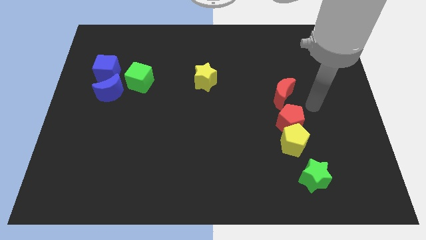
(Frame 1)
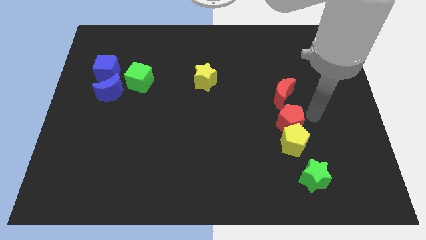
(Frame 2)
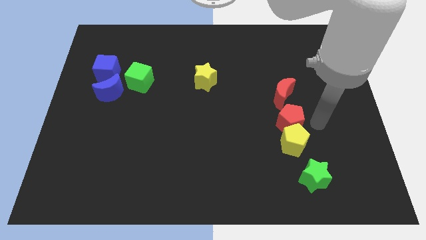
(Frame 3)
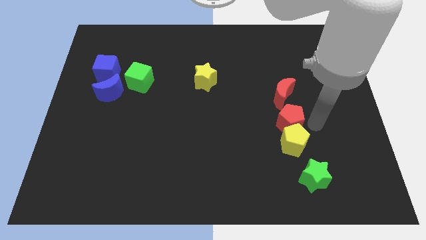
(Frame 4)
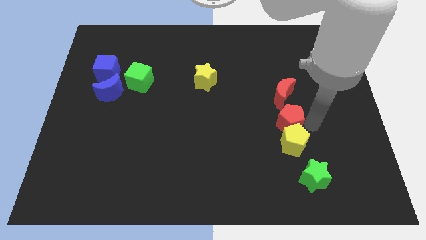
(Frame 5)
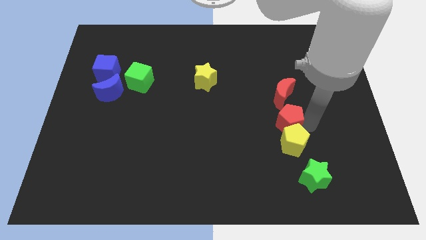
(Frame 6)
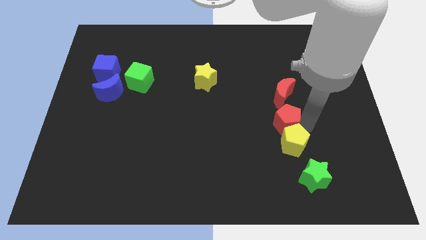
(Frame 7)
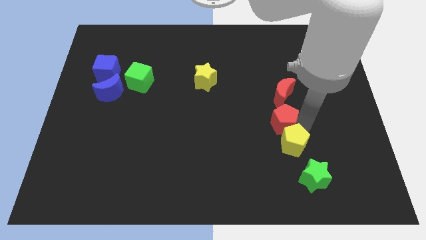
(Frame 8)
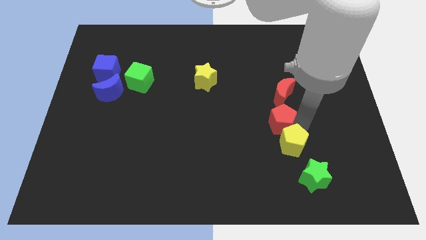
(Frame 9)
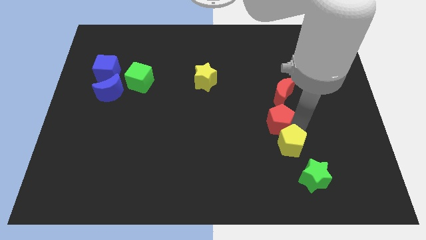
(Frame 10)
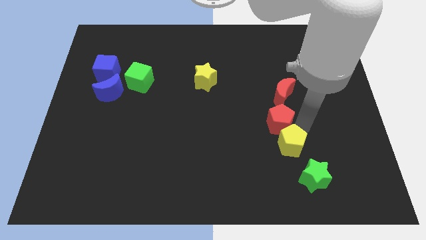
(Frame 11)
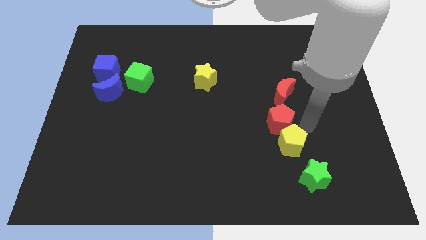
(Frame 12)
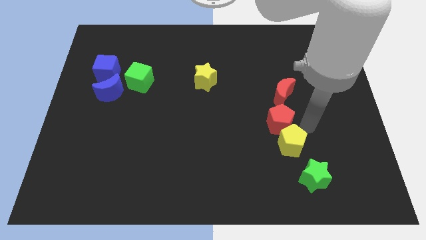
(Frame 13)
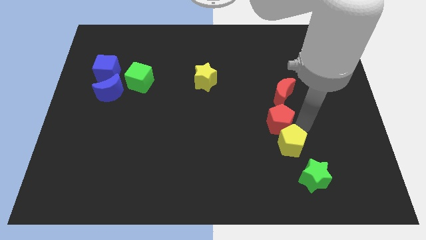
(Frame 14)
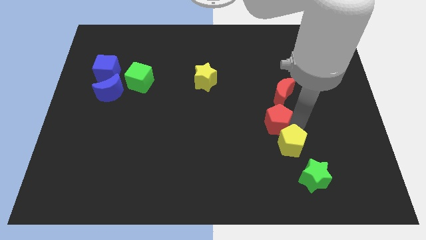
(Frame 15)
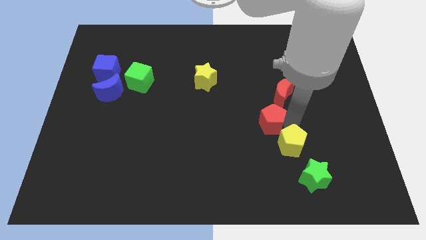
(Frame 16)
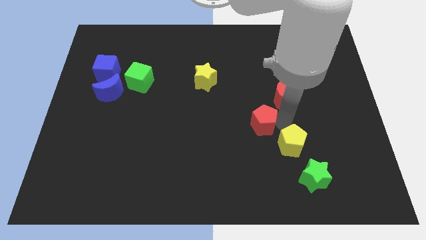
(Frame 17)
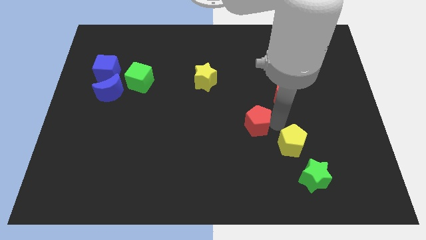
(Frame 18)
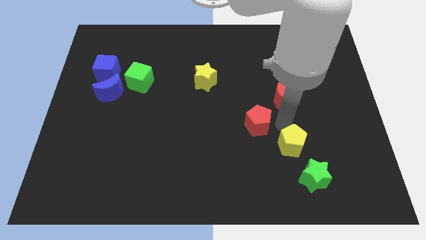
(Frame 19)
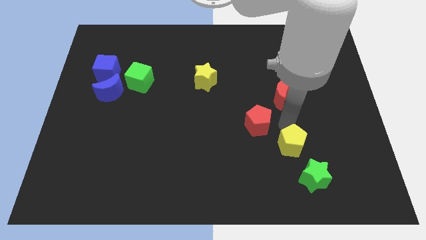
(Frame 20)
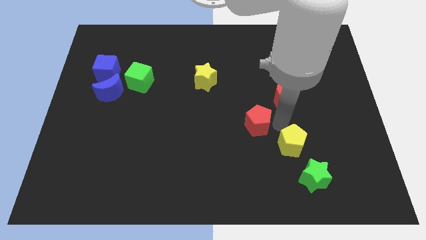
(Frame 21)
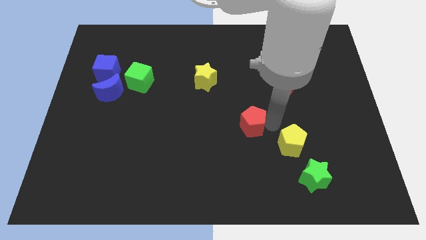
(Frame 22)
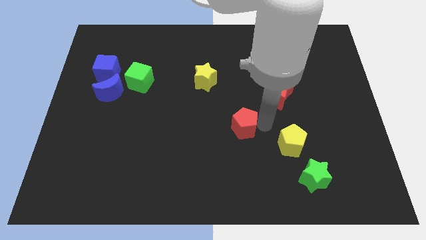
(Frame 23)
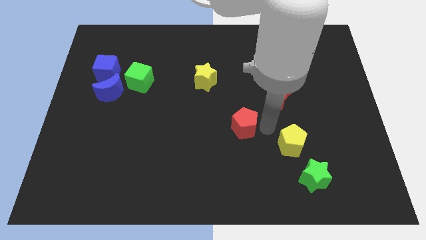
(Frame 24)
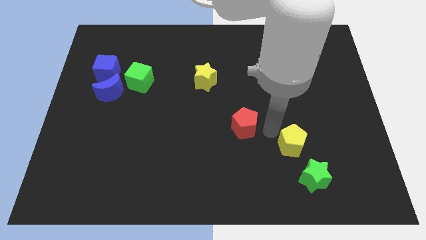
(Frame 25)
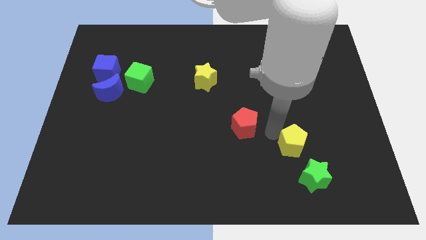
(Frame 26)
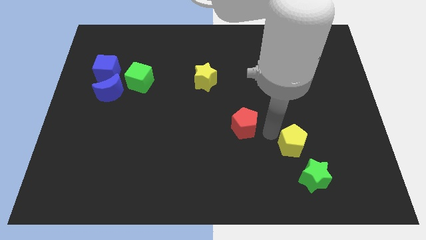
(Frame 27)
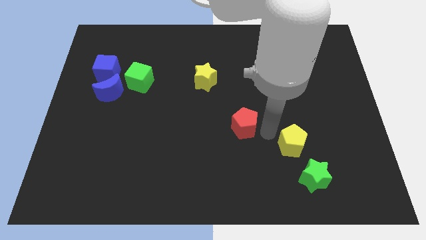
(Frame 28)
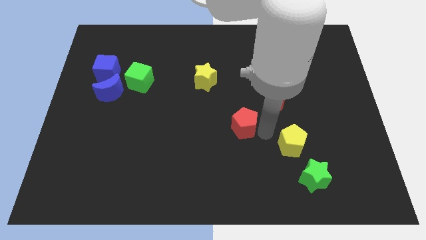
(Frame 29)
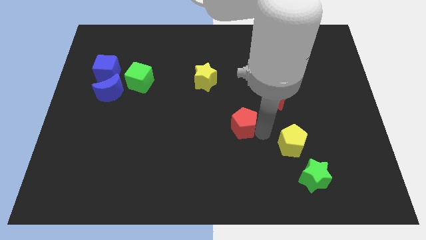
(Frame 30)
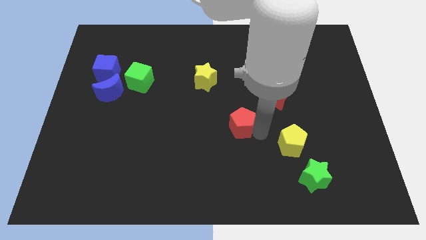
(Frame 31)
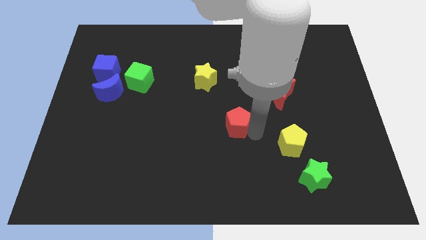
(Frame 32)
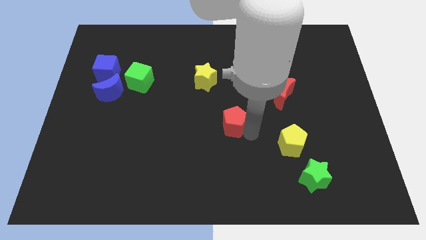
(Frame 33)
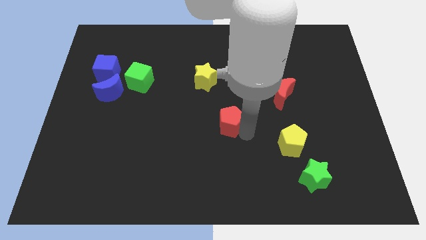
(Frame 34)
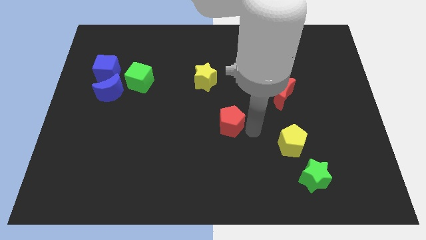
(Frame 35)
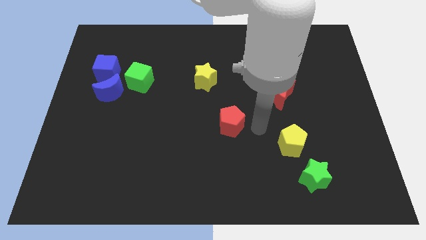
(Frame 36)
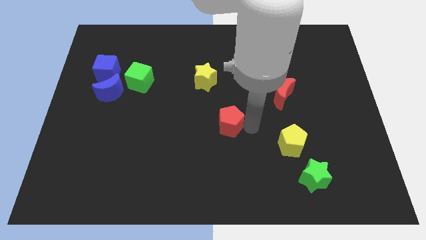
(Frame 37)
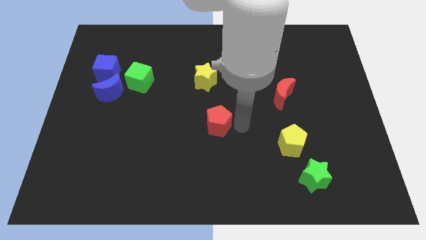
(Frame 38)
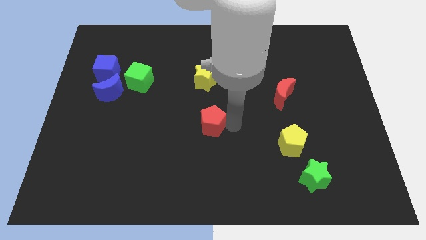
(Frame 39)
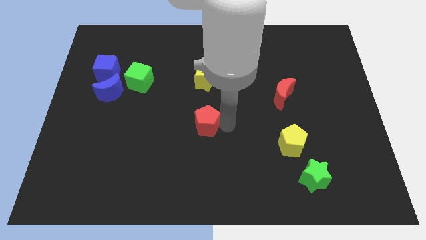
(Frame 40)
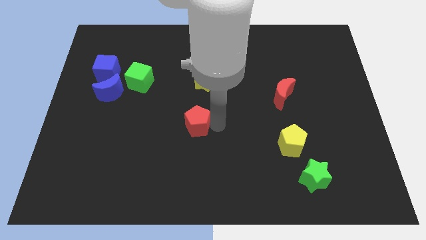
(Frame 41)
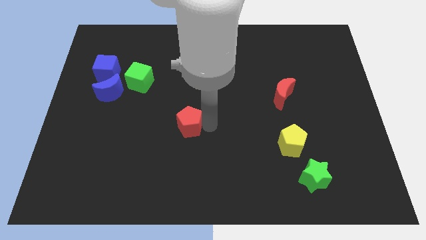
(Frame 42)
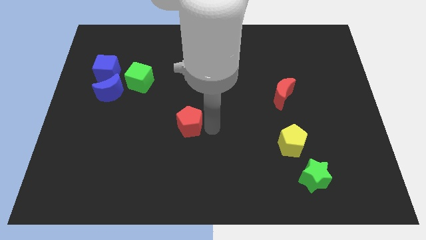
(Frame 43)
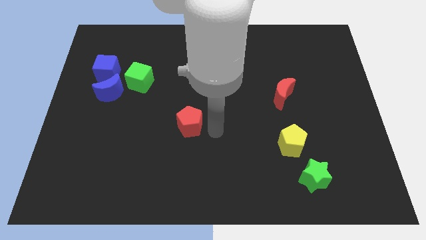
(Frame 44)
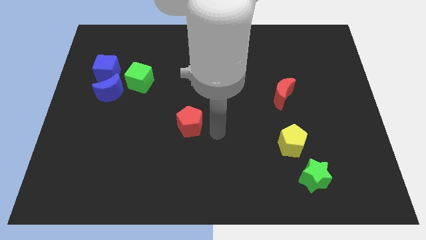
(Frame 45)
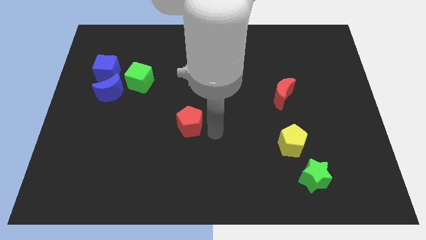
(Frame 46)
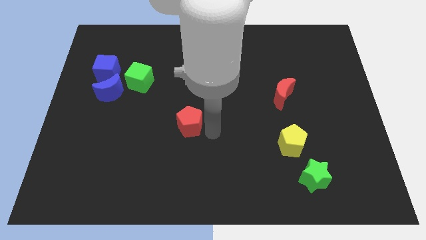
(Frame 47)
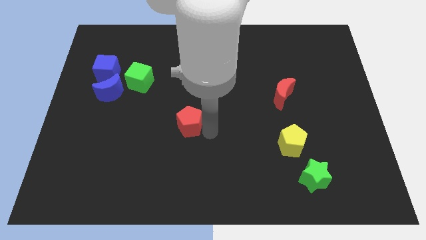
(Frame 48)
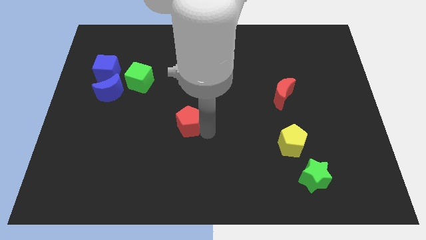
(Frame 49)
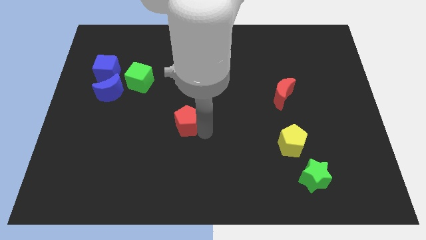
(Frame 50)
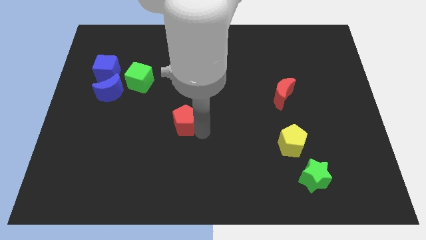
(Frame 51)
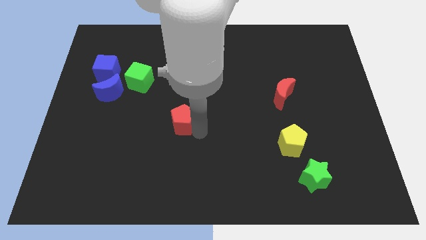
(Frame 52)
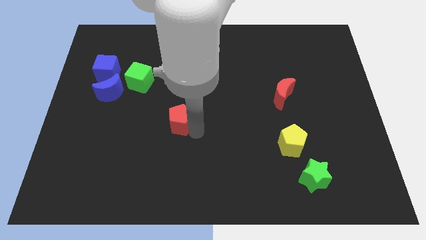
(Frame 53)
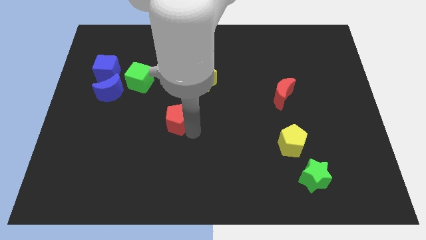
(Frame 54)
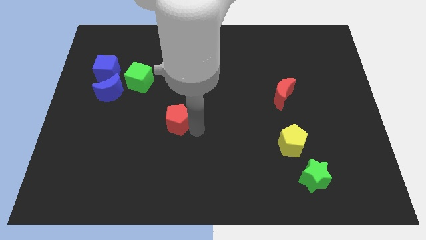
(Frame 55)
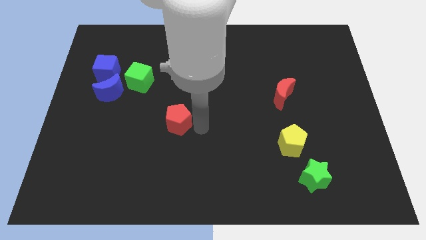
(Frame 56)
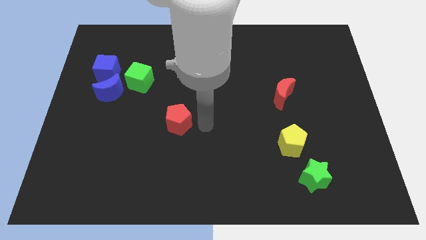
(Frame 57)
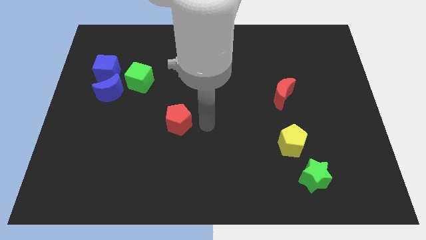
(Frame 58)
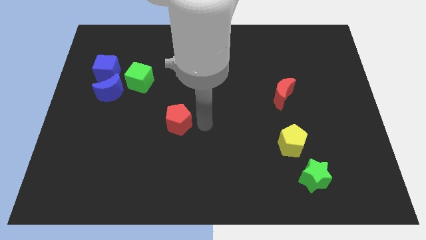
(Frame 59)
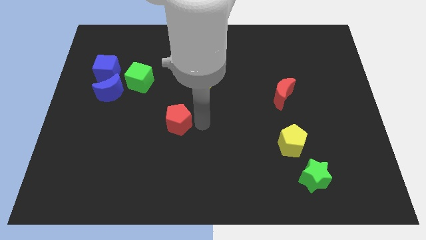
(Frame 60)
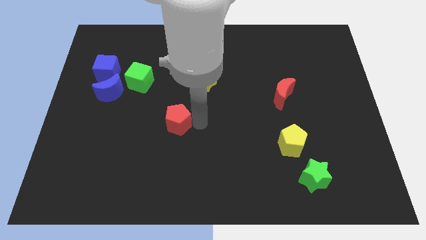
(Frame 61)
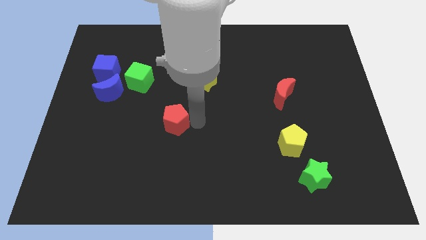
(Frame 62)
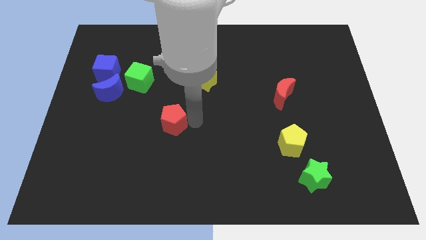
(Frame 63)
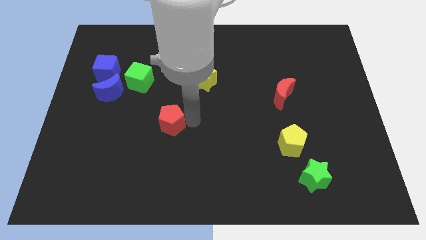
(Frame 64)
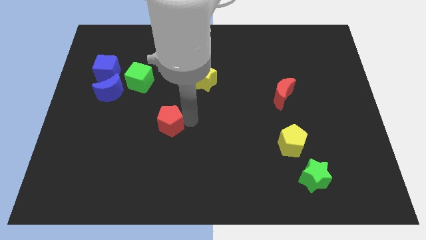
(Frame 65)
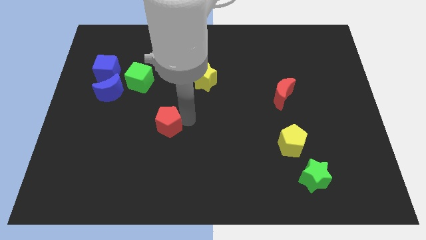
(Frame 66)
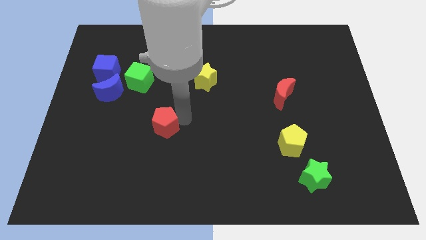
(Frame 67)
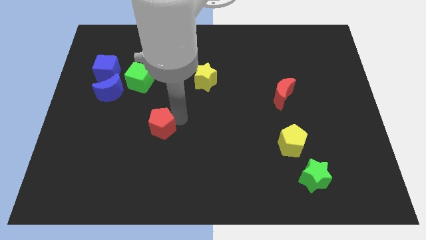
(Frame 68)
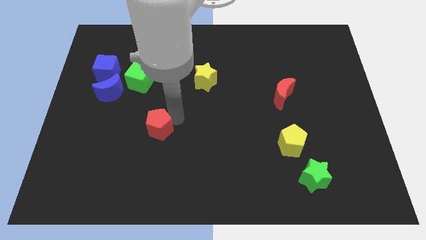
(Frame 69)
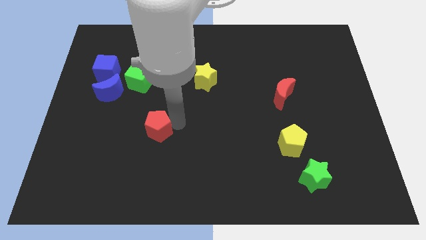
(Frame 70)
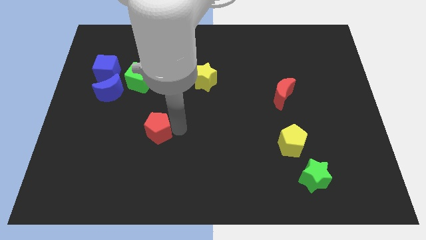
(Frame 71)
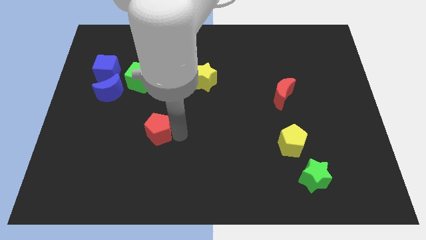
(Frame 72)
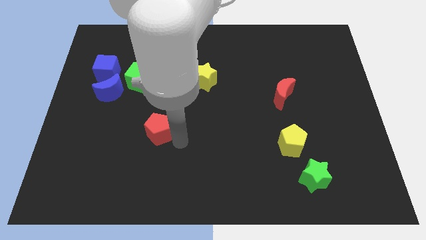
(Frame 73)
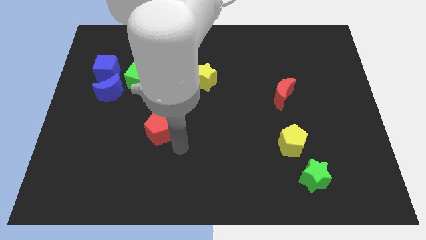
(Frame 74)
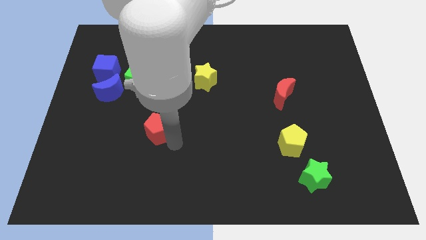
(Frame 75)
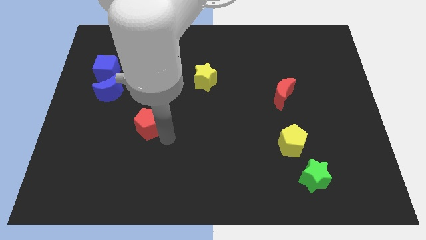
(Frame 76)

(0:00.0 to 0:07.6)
move the red pentagon to the bottom side of the green cube
